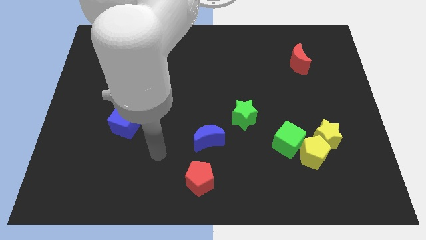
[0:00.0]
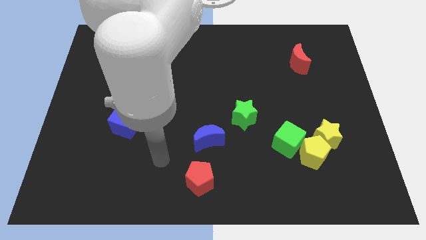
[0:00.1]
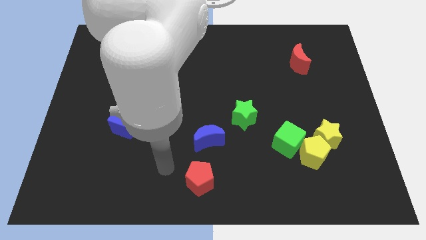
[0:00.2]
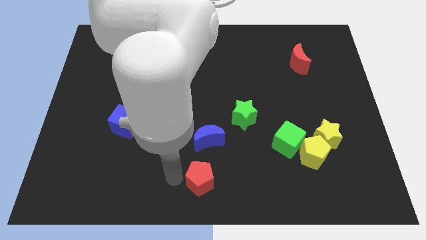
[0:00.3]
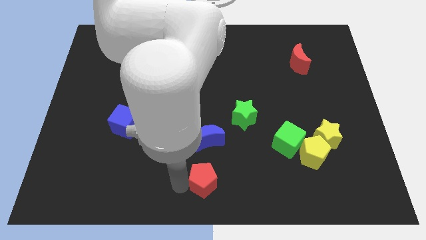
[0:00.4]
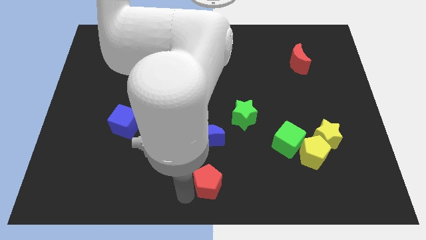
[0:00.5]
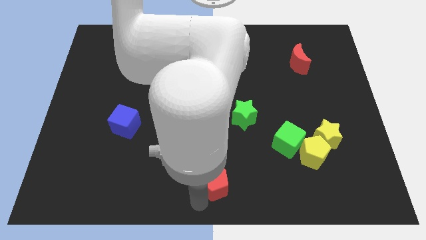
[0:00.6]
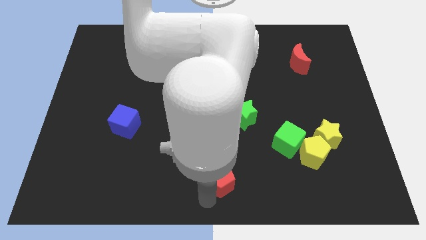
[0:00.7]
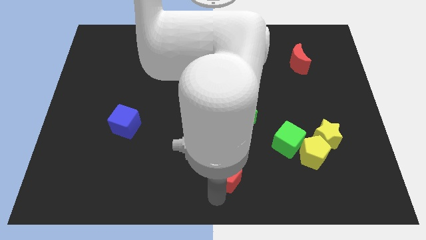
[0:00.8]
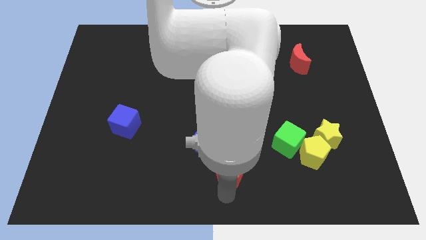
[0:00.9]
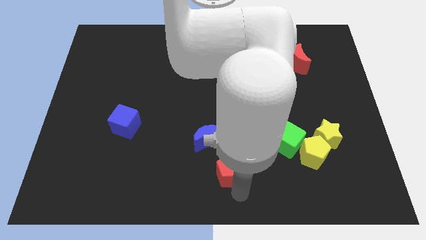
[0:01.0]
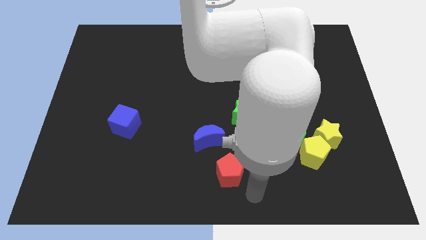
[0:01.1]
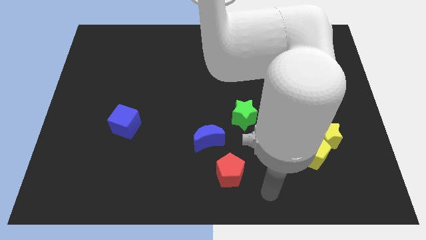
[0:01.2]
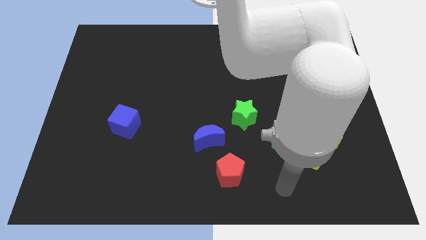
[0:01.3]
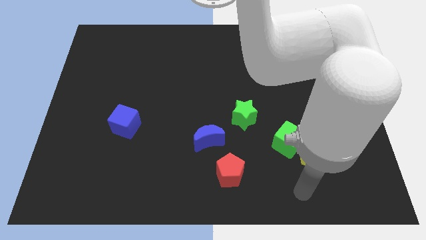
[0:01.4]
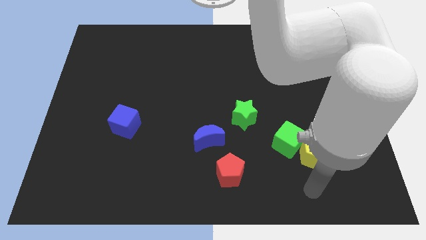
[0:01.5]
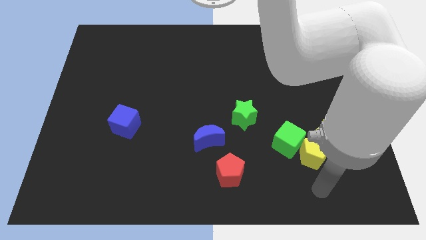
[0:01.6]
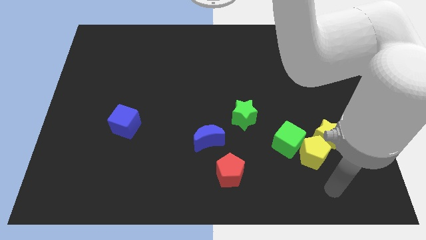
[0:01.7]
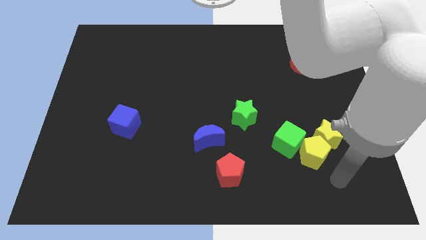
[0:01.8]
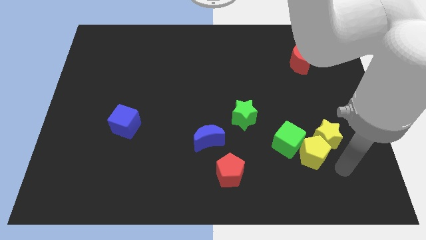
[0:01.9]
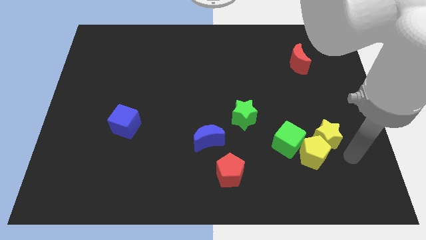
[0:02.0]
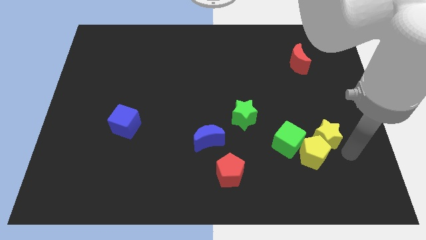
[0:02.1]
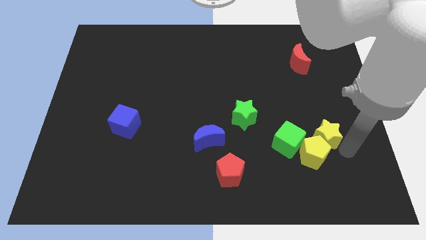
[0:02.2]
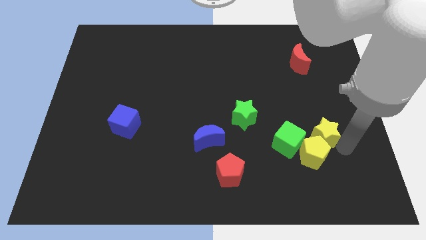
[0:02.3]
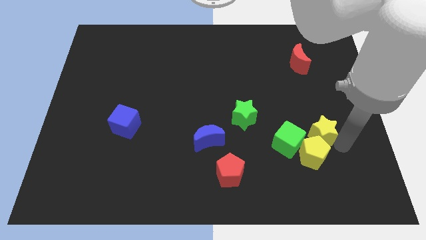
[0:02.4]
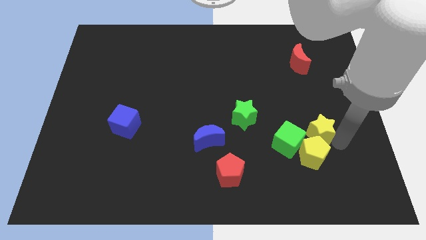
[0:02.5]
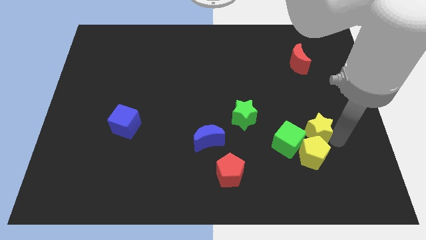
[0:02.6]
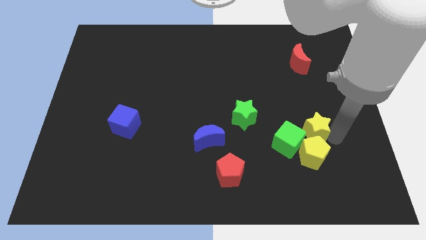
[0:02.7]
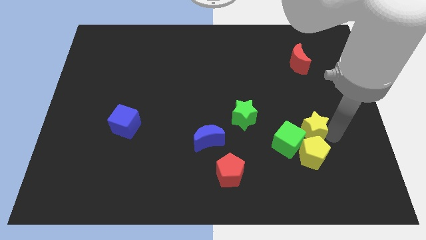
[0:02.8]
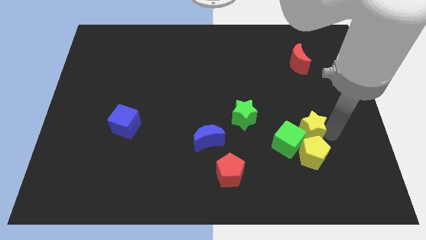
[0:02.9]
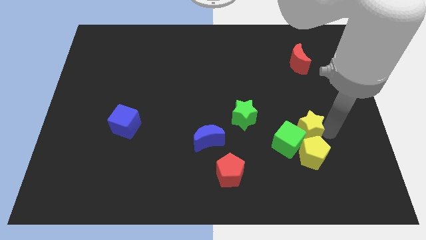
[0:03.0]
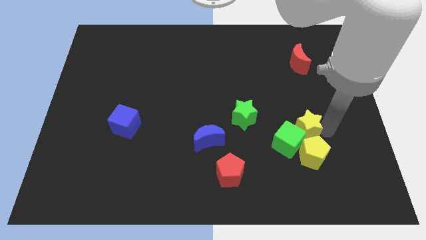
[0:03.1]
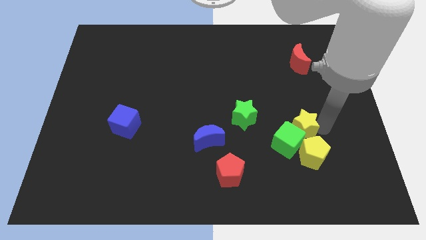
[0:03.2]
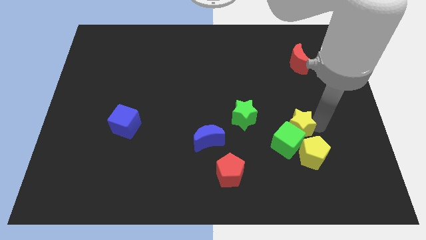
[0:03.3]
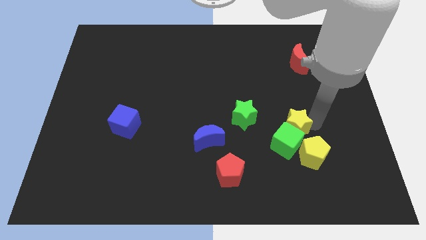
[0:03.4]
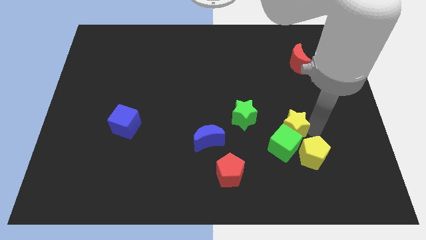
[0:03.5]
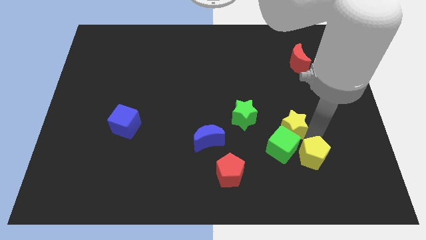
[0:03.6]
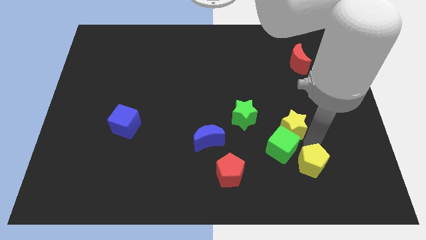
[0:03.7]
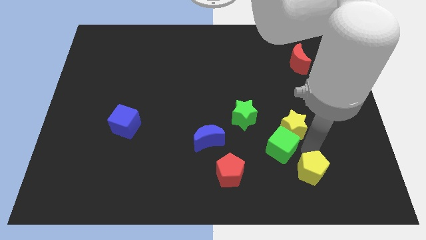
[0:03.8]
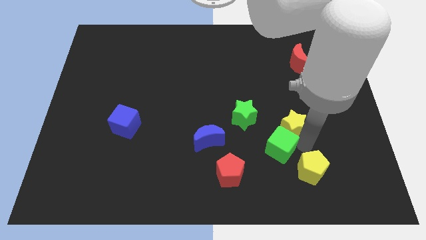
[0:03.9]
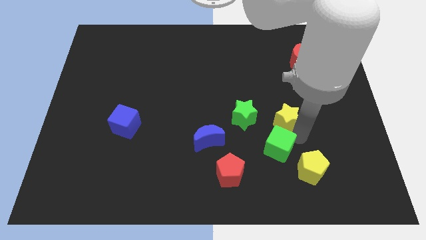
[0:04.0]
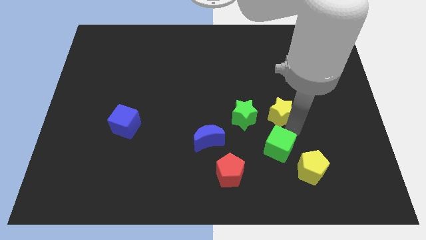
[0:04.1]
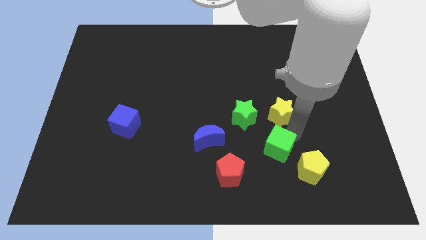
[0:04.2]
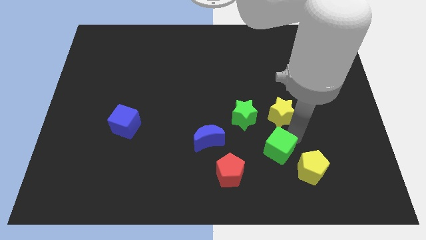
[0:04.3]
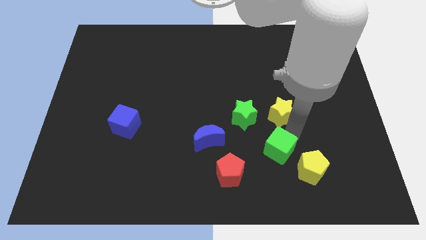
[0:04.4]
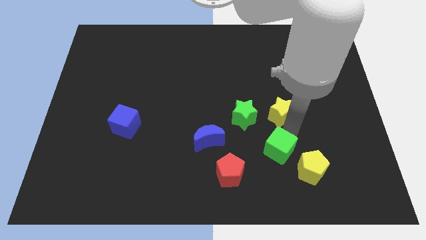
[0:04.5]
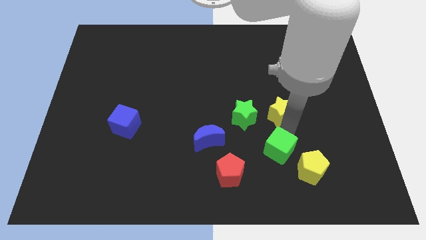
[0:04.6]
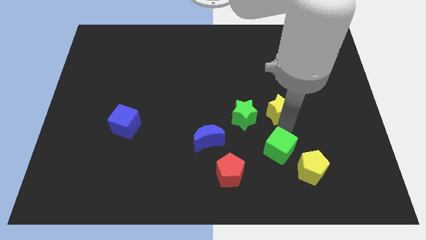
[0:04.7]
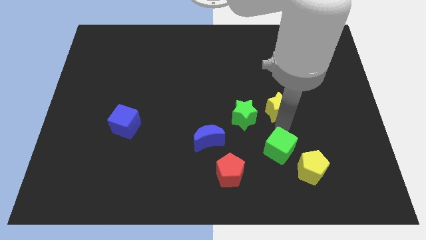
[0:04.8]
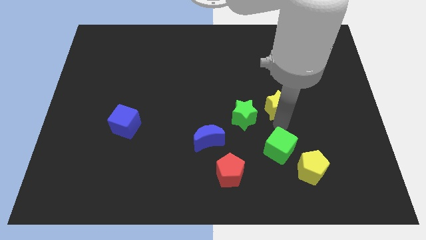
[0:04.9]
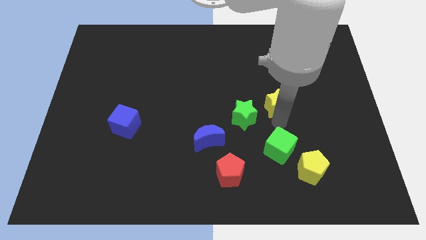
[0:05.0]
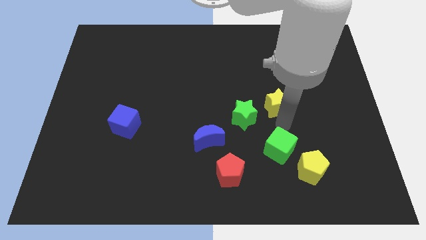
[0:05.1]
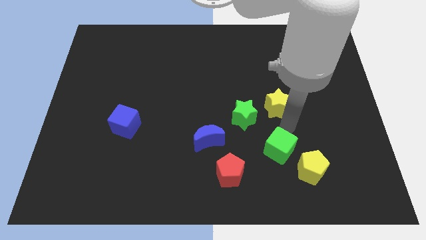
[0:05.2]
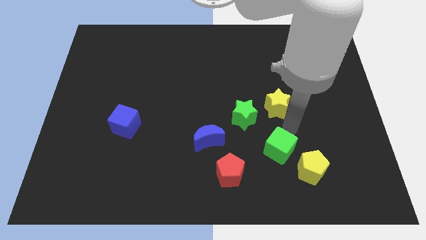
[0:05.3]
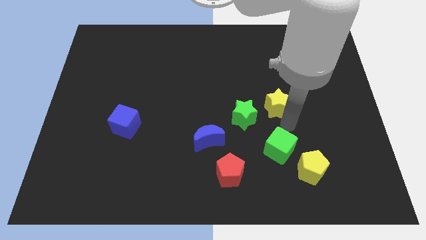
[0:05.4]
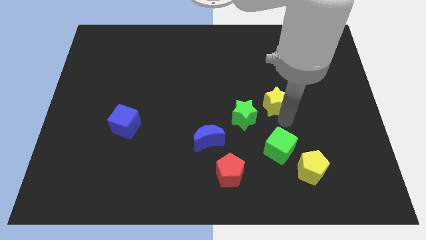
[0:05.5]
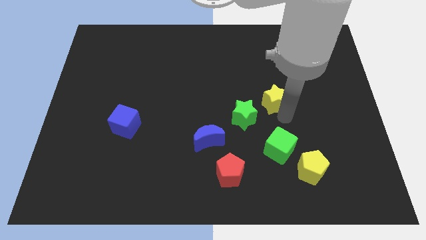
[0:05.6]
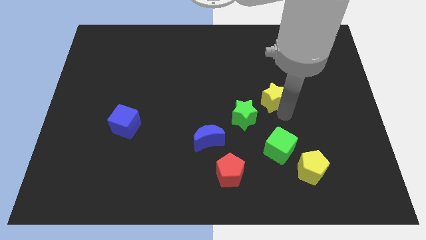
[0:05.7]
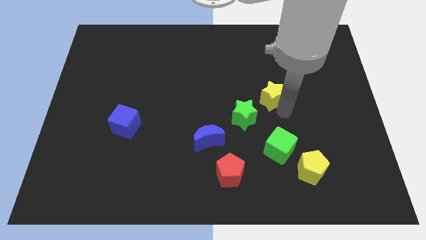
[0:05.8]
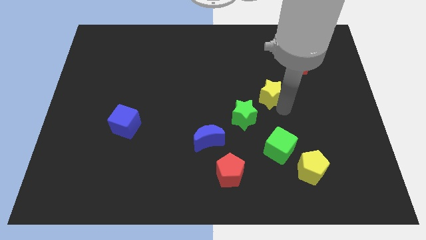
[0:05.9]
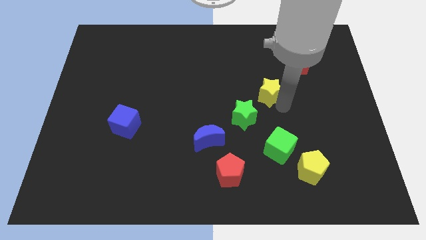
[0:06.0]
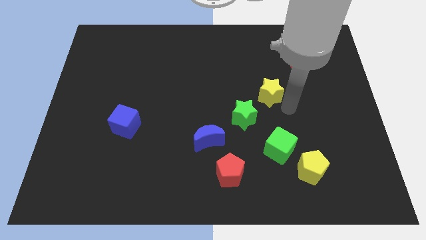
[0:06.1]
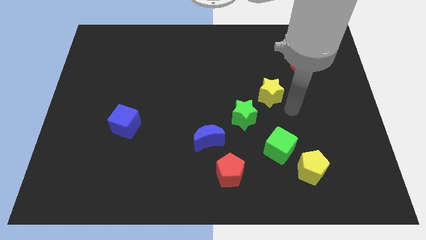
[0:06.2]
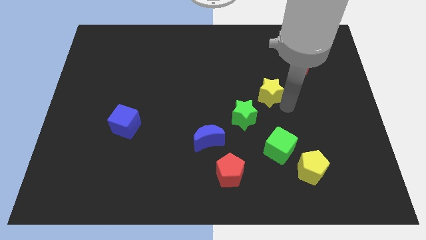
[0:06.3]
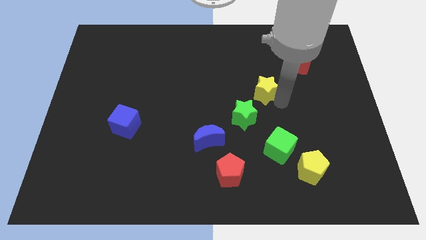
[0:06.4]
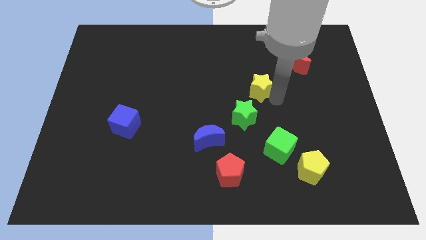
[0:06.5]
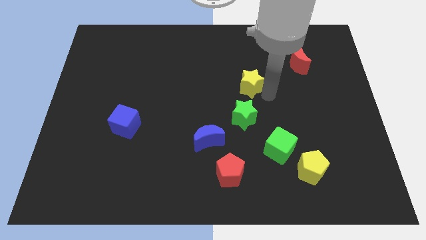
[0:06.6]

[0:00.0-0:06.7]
push the yellow star upwards and left diagonally

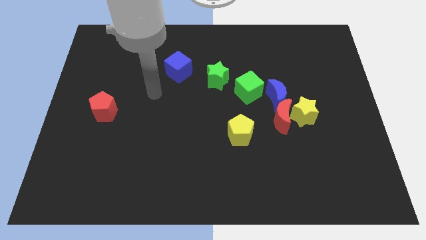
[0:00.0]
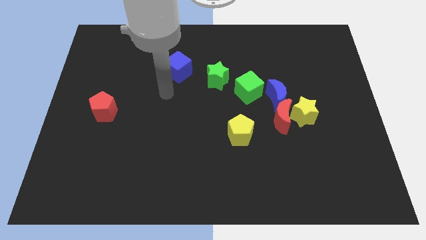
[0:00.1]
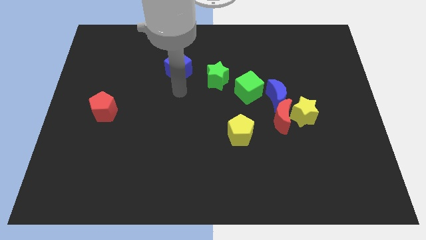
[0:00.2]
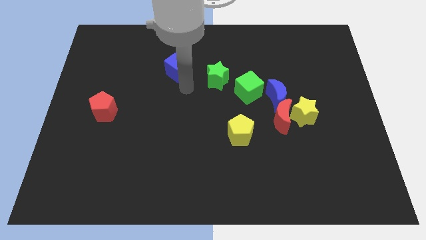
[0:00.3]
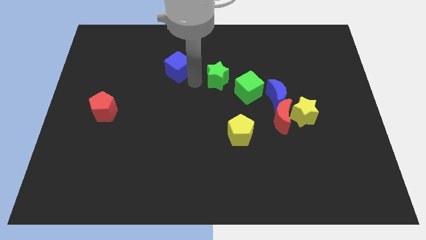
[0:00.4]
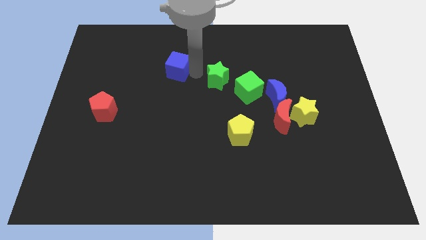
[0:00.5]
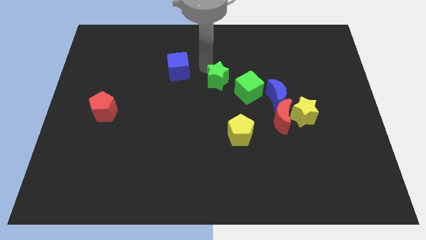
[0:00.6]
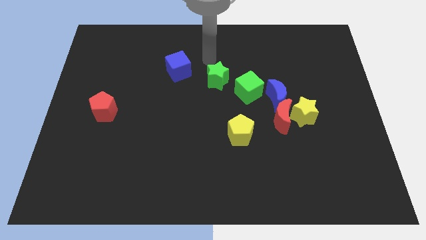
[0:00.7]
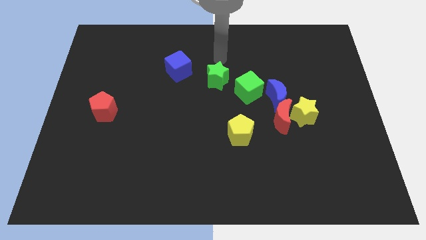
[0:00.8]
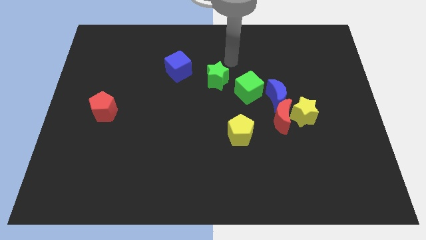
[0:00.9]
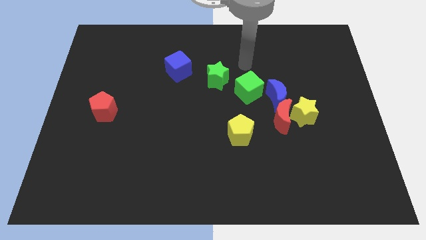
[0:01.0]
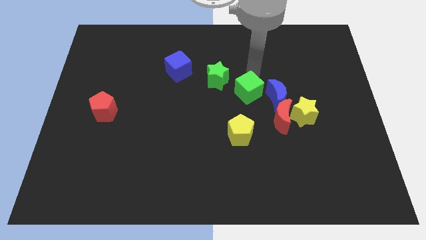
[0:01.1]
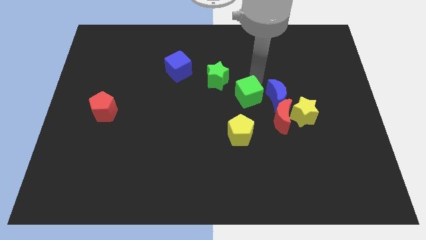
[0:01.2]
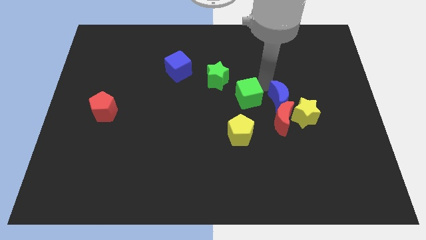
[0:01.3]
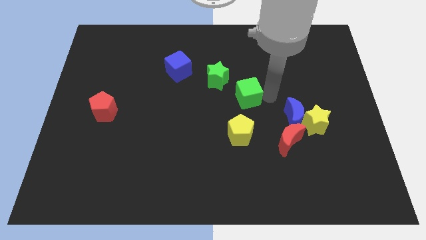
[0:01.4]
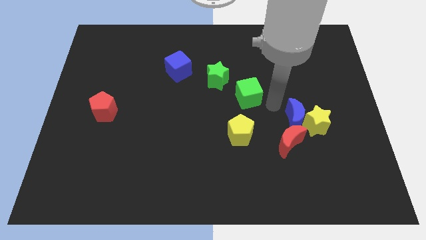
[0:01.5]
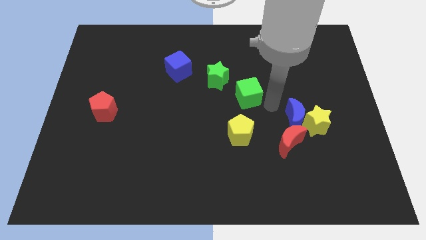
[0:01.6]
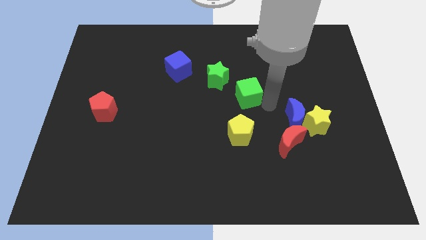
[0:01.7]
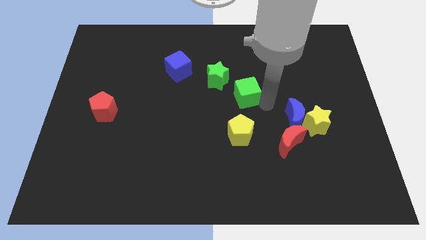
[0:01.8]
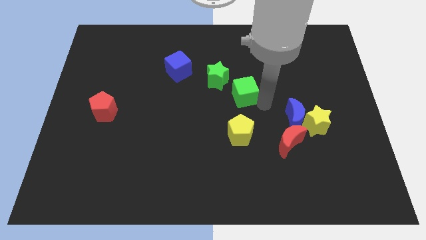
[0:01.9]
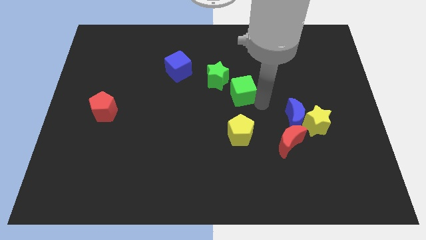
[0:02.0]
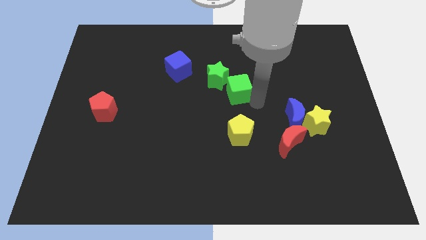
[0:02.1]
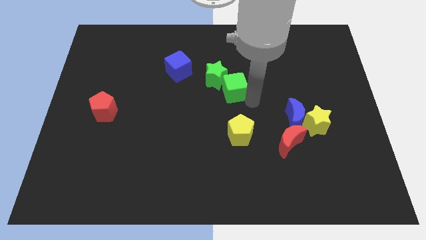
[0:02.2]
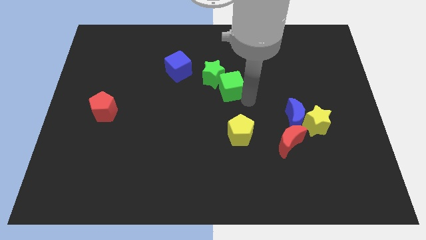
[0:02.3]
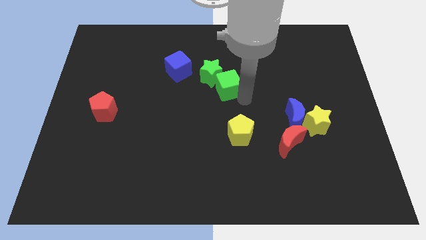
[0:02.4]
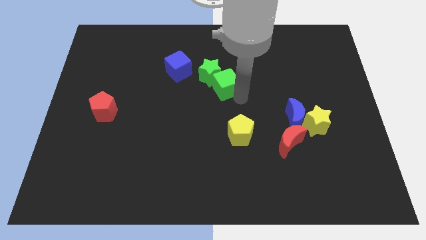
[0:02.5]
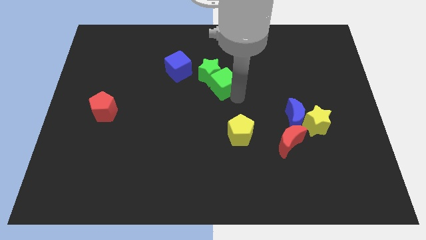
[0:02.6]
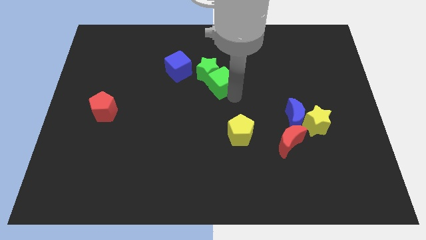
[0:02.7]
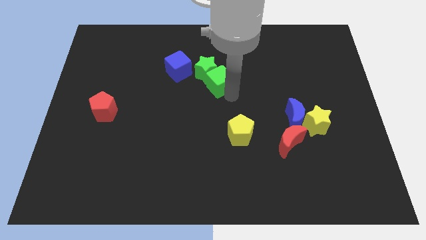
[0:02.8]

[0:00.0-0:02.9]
slightly push the green cube to the left
